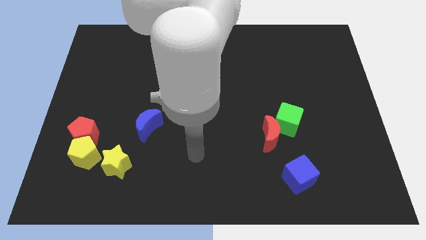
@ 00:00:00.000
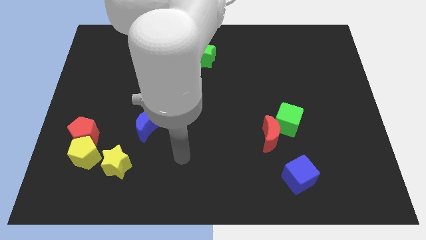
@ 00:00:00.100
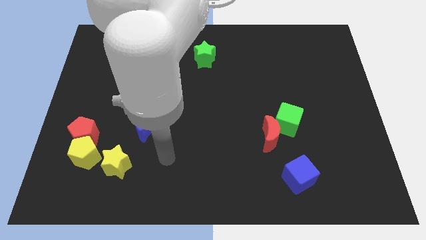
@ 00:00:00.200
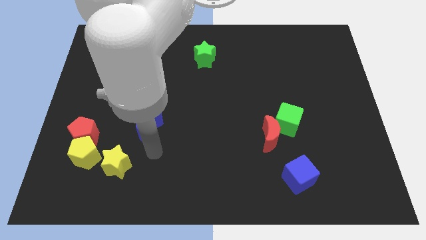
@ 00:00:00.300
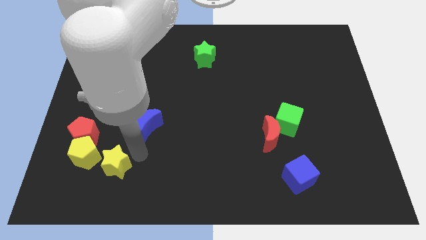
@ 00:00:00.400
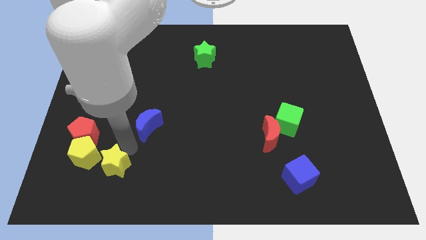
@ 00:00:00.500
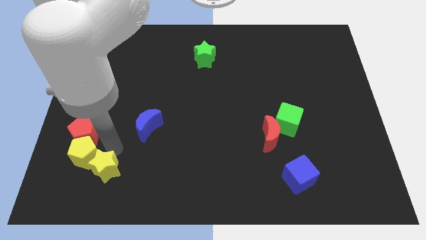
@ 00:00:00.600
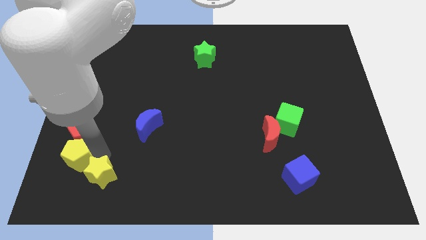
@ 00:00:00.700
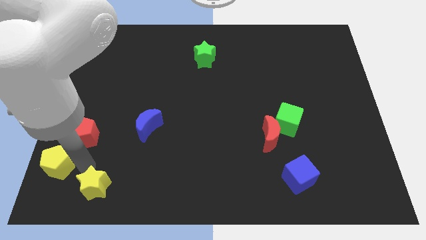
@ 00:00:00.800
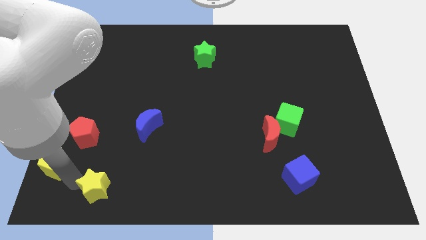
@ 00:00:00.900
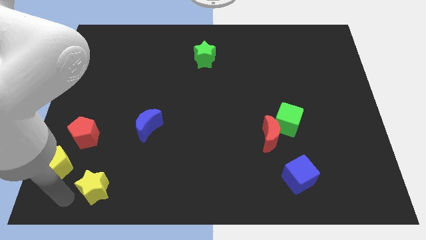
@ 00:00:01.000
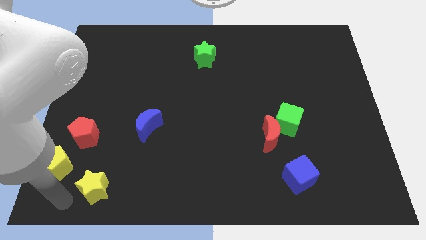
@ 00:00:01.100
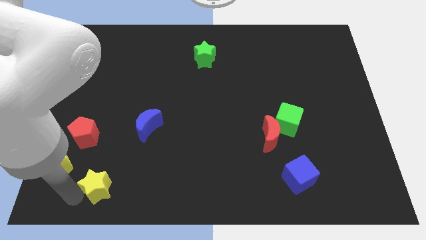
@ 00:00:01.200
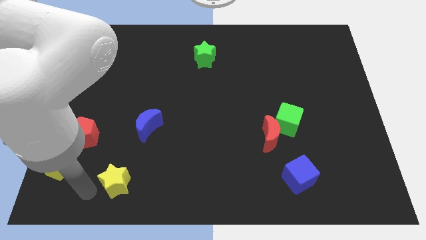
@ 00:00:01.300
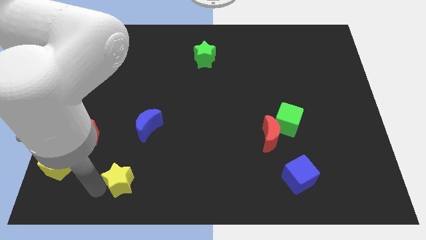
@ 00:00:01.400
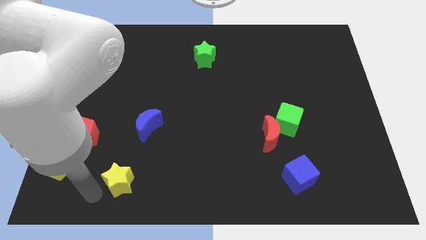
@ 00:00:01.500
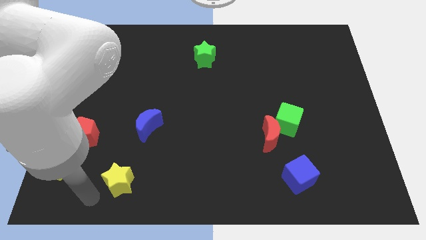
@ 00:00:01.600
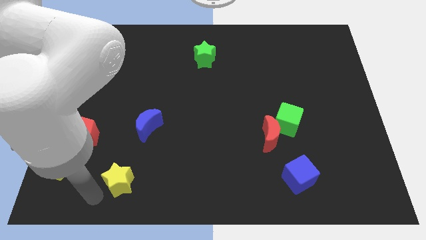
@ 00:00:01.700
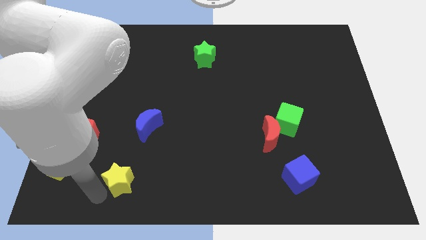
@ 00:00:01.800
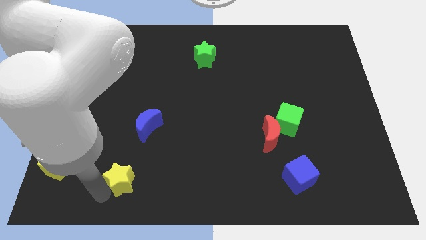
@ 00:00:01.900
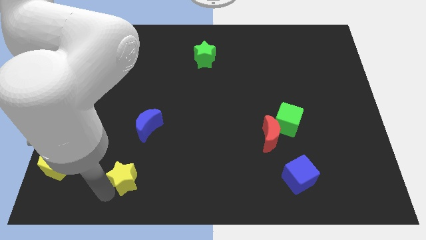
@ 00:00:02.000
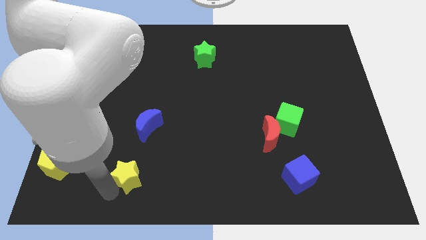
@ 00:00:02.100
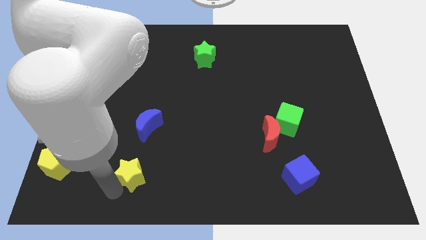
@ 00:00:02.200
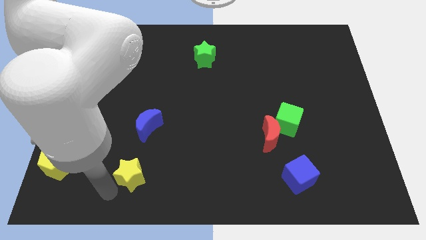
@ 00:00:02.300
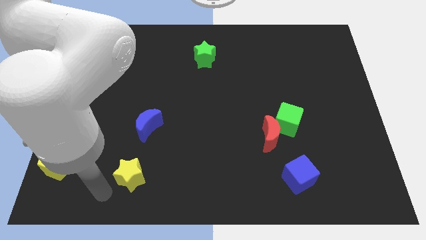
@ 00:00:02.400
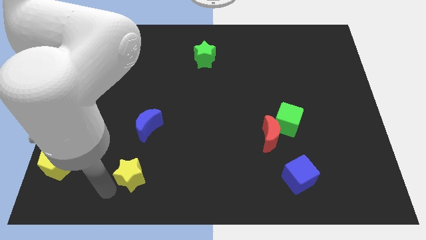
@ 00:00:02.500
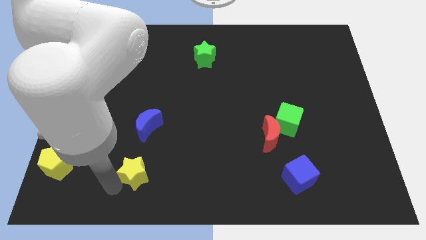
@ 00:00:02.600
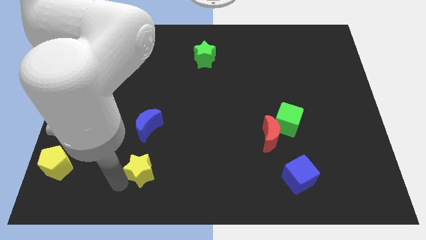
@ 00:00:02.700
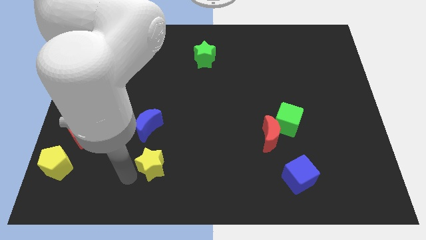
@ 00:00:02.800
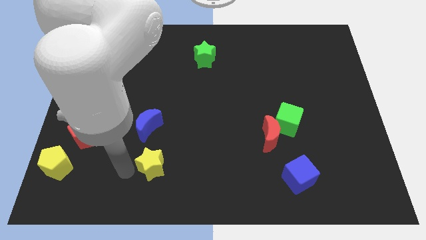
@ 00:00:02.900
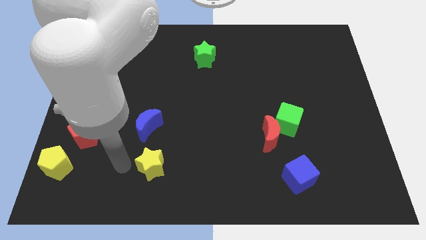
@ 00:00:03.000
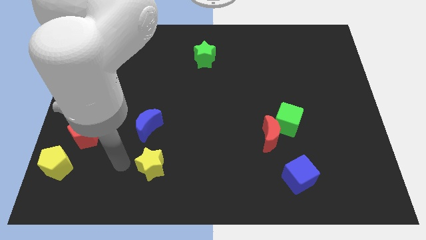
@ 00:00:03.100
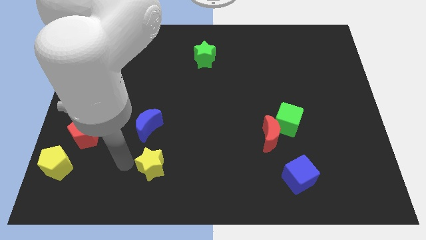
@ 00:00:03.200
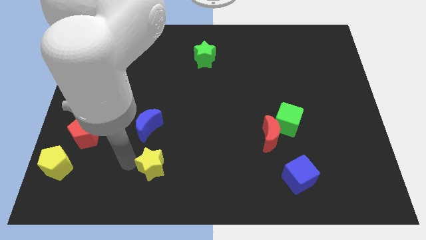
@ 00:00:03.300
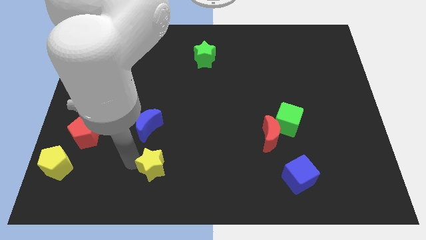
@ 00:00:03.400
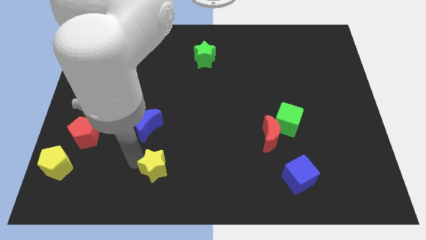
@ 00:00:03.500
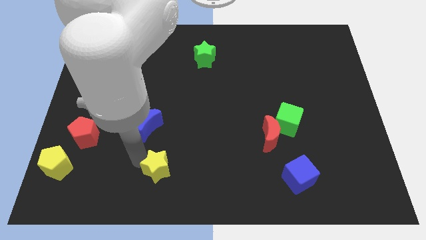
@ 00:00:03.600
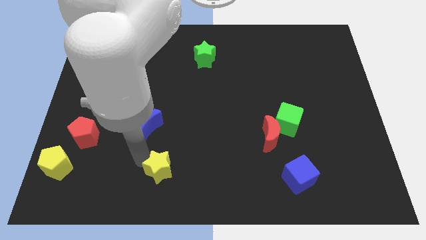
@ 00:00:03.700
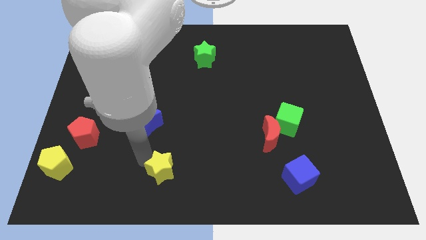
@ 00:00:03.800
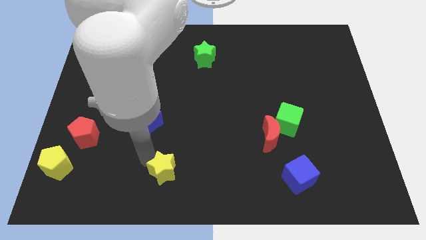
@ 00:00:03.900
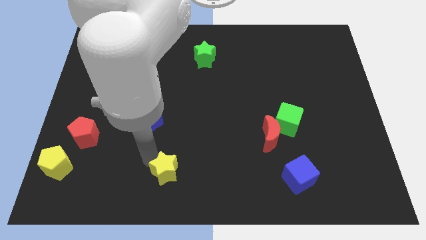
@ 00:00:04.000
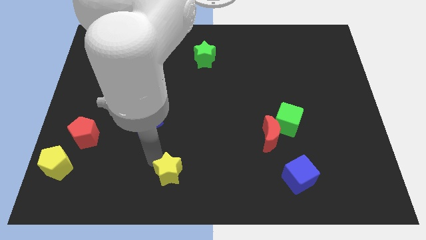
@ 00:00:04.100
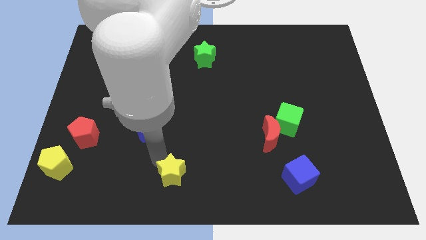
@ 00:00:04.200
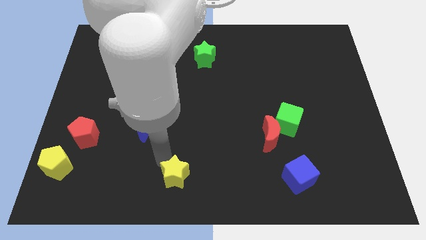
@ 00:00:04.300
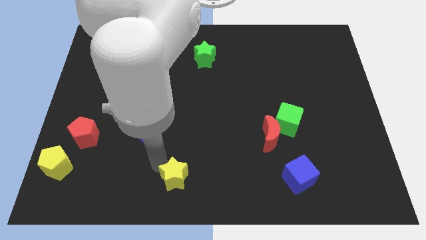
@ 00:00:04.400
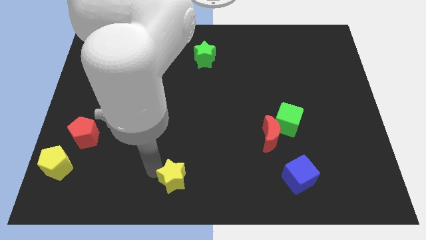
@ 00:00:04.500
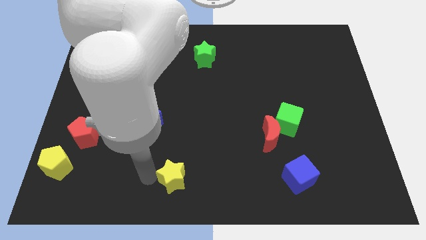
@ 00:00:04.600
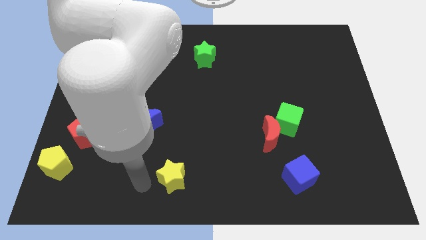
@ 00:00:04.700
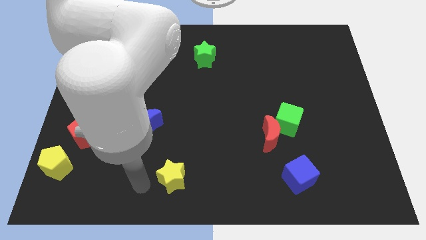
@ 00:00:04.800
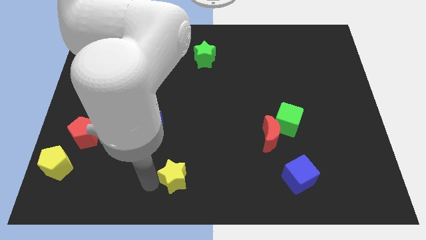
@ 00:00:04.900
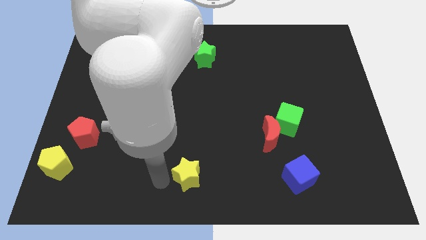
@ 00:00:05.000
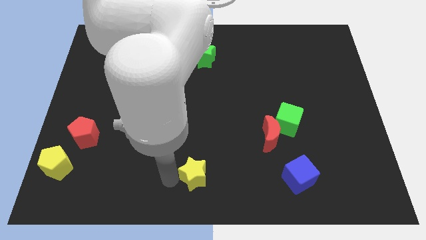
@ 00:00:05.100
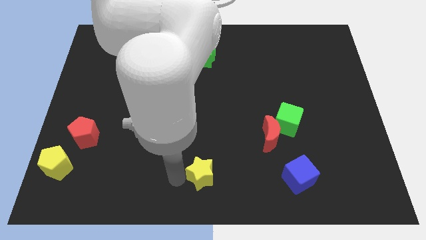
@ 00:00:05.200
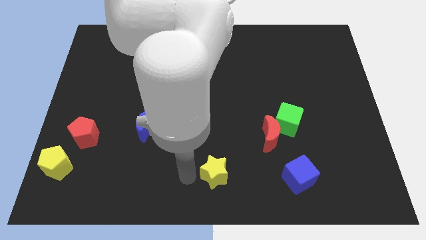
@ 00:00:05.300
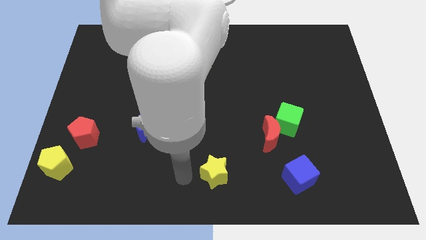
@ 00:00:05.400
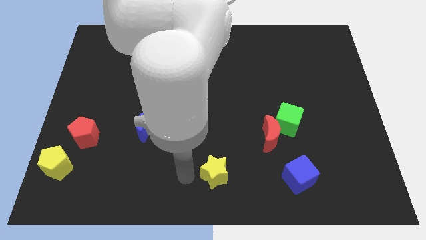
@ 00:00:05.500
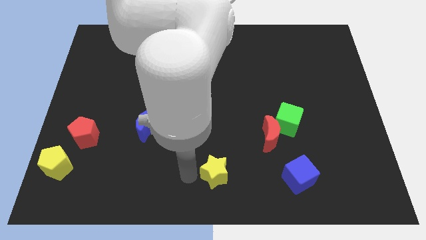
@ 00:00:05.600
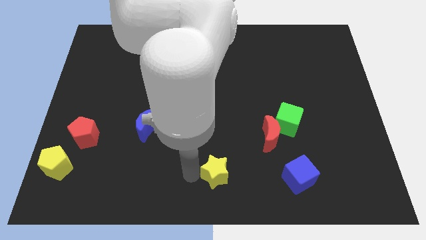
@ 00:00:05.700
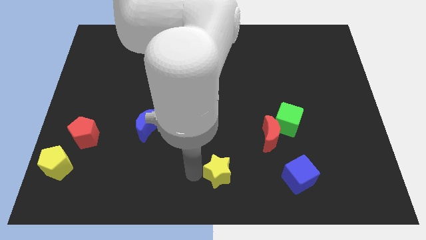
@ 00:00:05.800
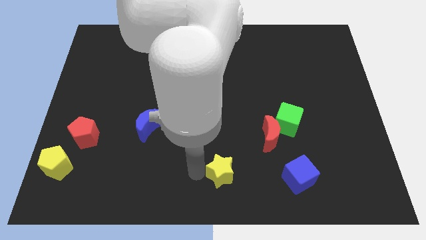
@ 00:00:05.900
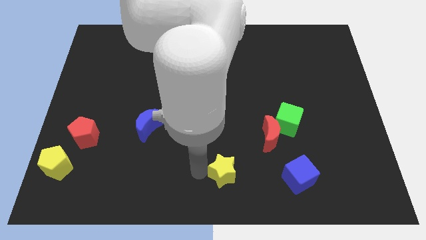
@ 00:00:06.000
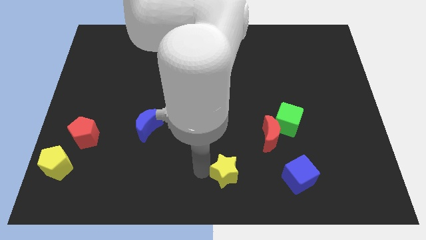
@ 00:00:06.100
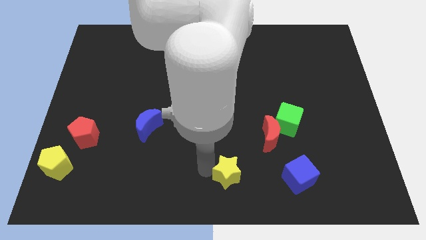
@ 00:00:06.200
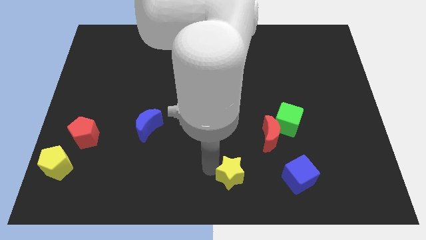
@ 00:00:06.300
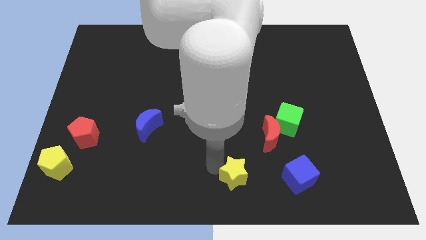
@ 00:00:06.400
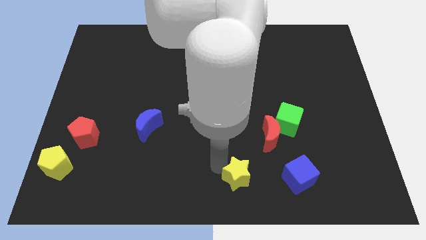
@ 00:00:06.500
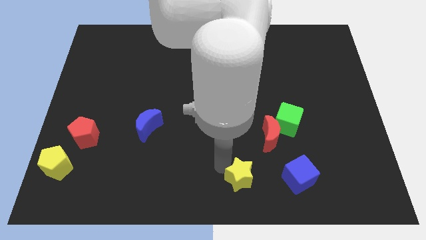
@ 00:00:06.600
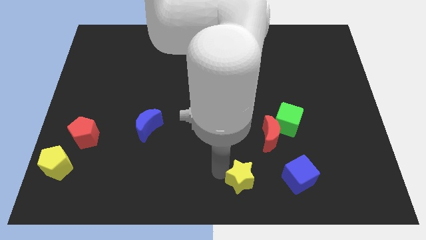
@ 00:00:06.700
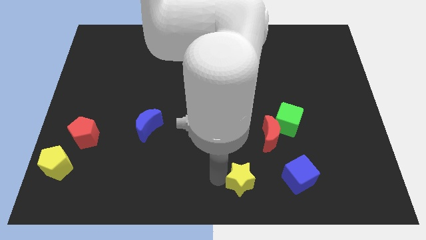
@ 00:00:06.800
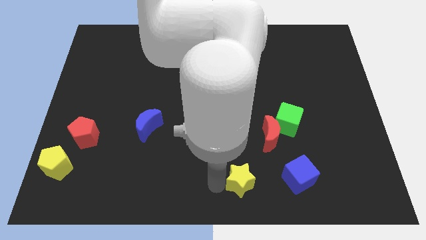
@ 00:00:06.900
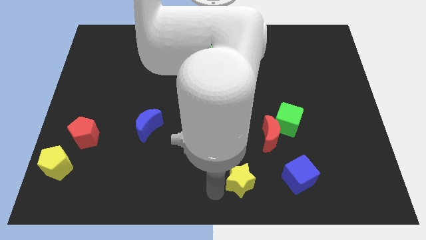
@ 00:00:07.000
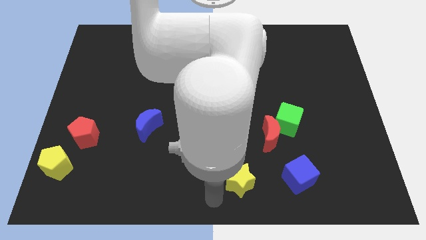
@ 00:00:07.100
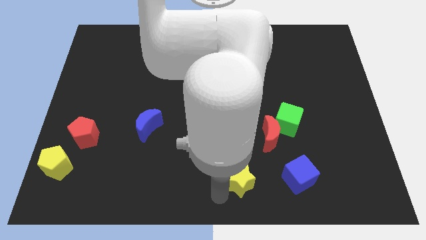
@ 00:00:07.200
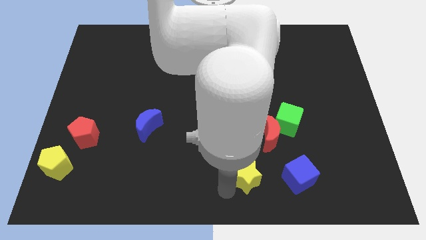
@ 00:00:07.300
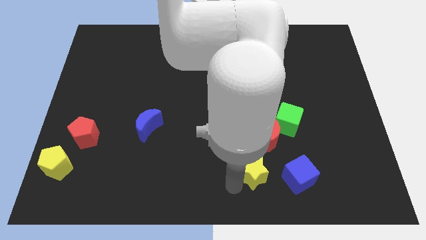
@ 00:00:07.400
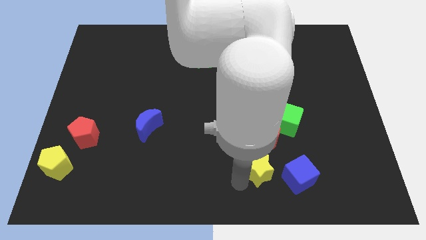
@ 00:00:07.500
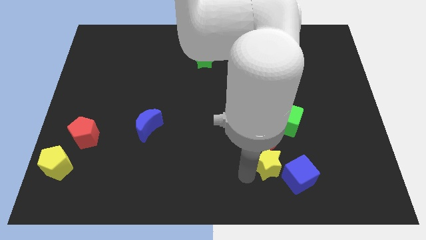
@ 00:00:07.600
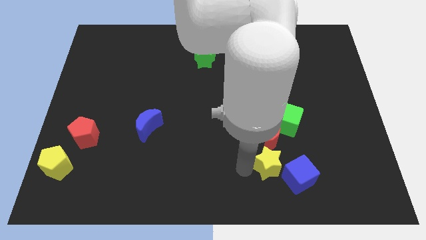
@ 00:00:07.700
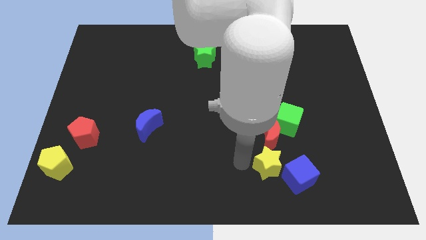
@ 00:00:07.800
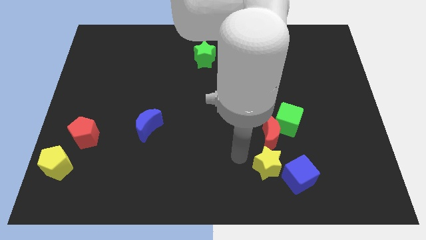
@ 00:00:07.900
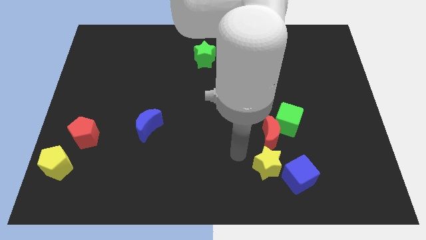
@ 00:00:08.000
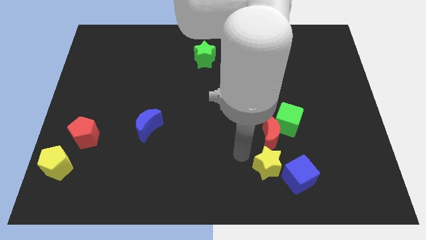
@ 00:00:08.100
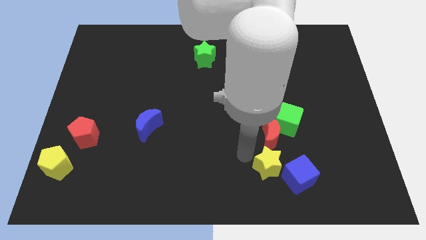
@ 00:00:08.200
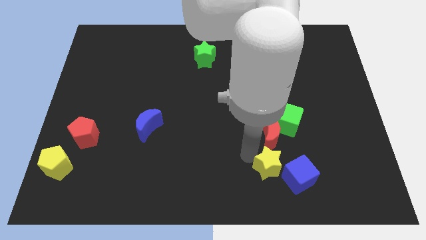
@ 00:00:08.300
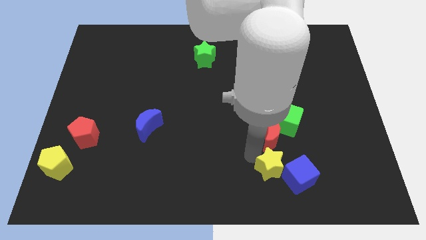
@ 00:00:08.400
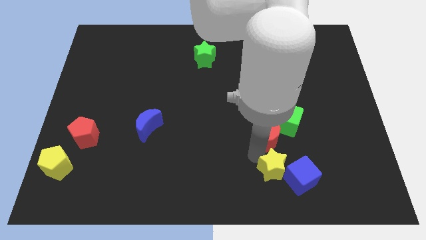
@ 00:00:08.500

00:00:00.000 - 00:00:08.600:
slide the yellow star close to the blue cube
